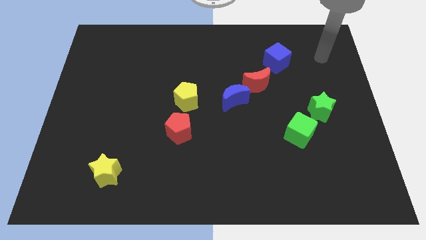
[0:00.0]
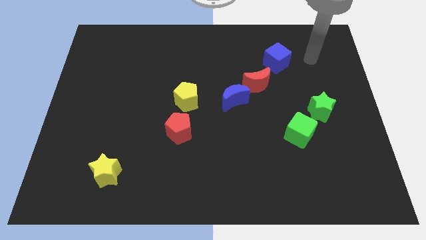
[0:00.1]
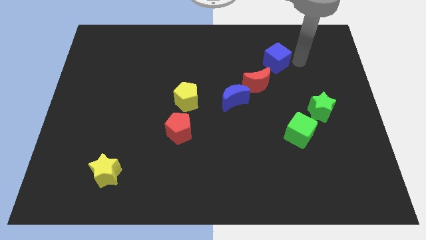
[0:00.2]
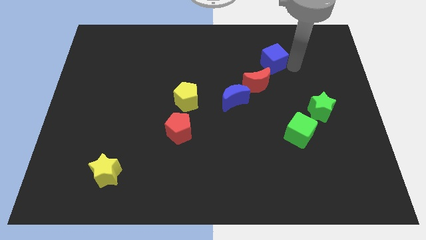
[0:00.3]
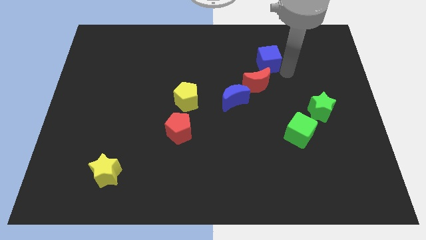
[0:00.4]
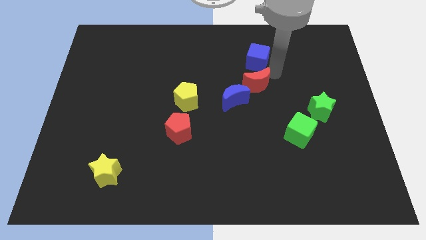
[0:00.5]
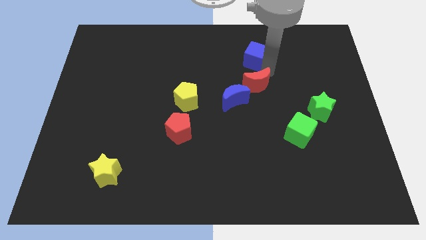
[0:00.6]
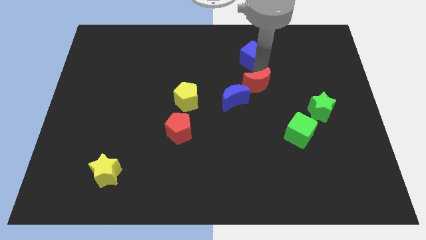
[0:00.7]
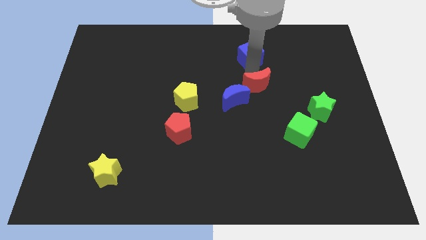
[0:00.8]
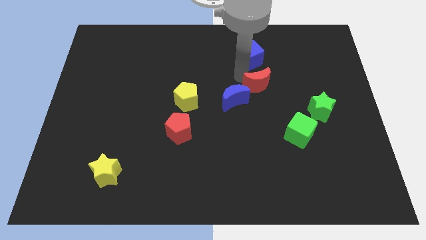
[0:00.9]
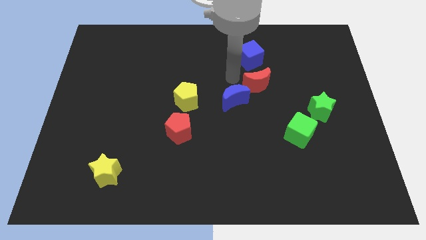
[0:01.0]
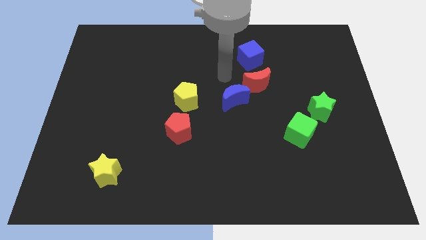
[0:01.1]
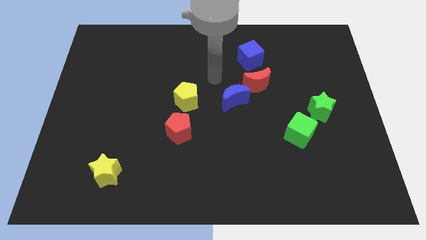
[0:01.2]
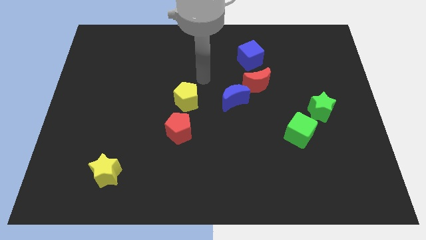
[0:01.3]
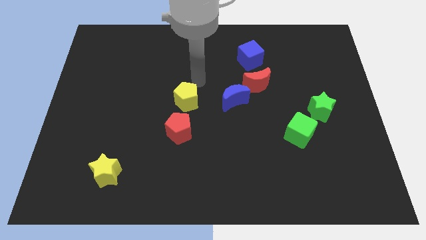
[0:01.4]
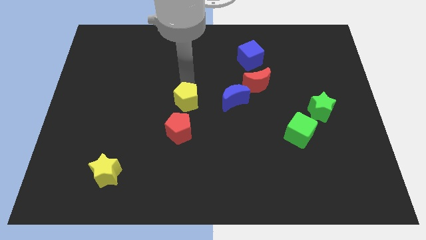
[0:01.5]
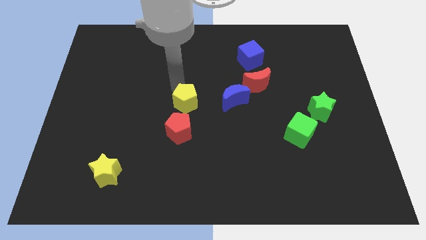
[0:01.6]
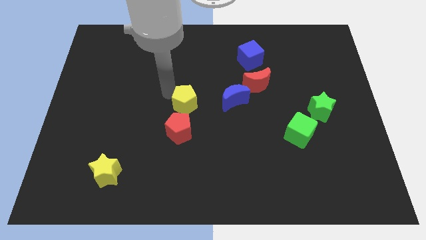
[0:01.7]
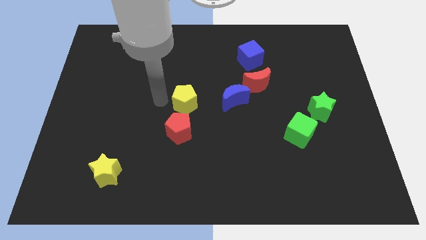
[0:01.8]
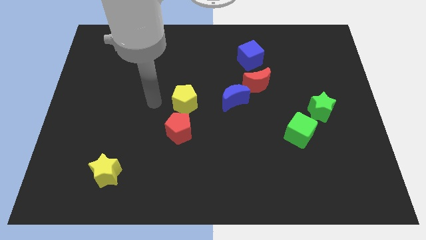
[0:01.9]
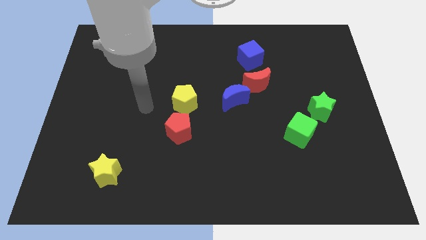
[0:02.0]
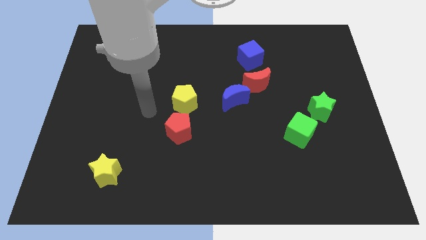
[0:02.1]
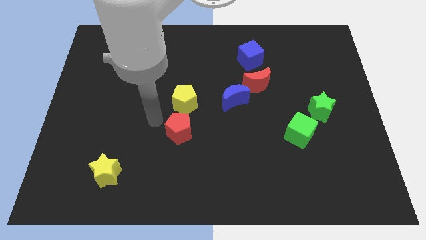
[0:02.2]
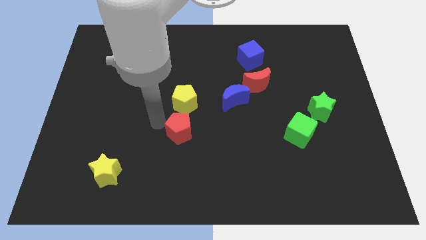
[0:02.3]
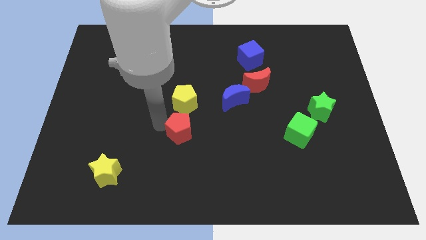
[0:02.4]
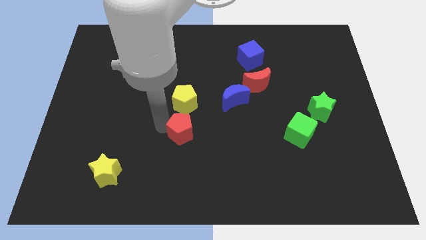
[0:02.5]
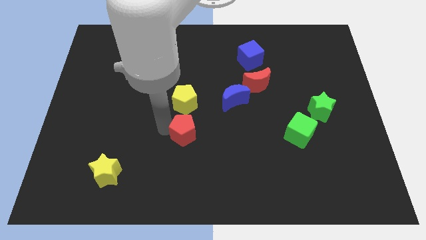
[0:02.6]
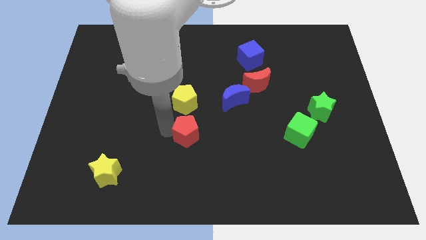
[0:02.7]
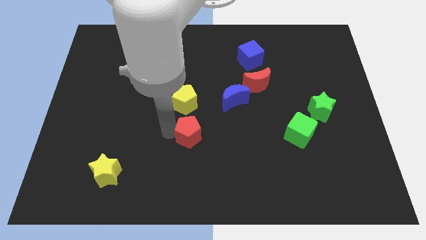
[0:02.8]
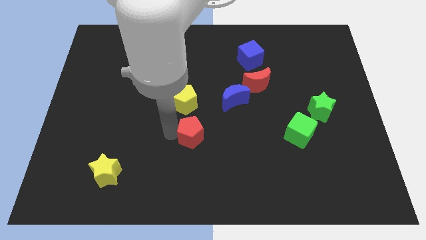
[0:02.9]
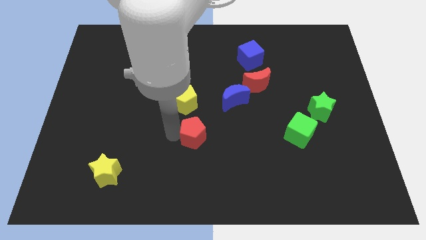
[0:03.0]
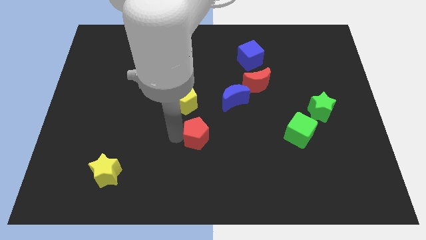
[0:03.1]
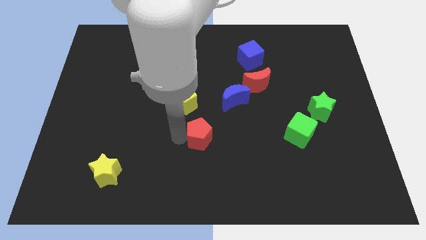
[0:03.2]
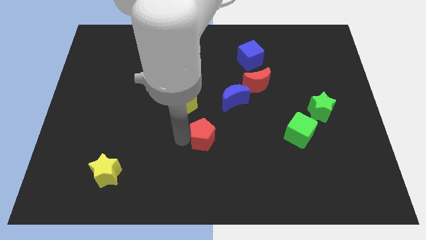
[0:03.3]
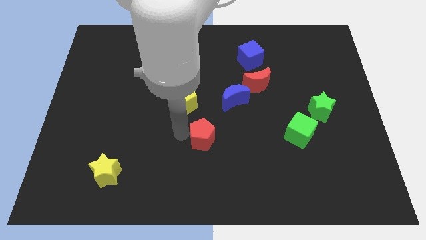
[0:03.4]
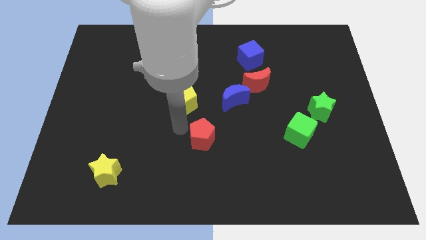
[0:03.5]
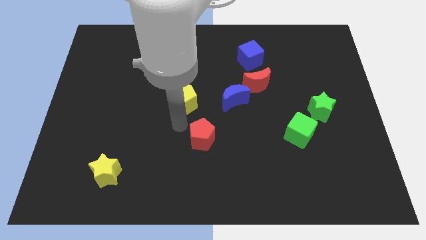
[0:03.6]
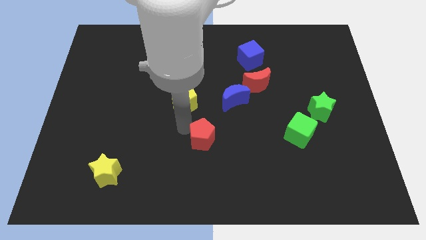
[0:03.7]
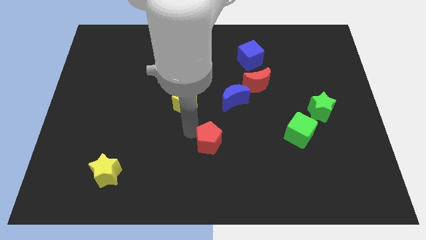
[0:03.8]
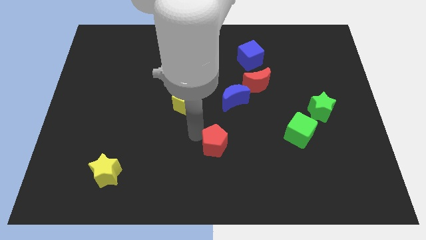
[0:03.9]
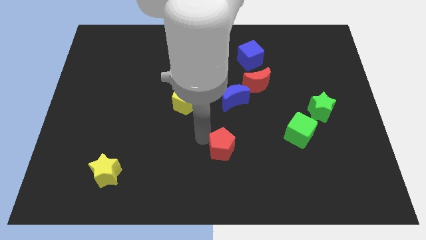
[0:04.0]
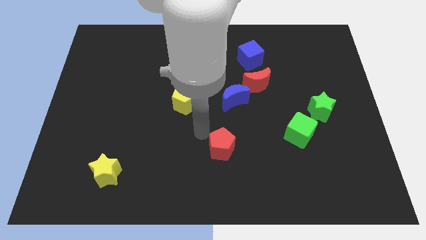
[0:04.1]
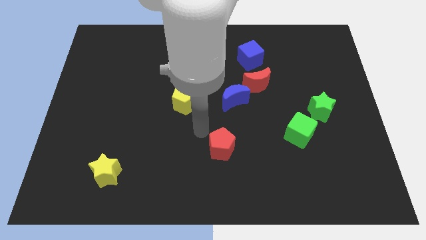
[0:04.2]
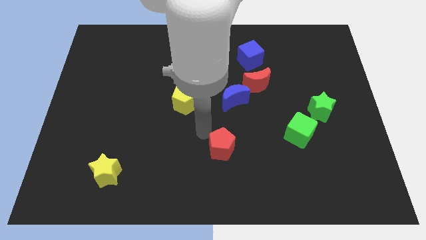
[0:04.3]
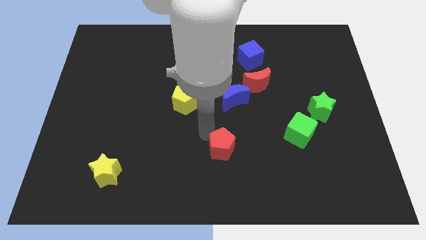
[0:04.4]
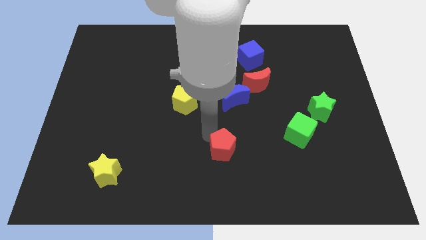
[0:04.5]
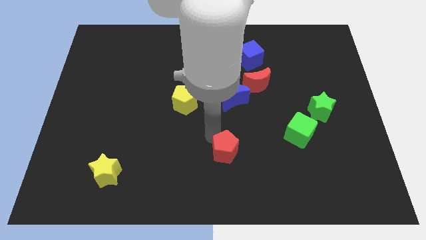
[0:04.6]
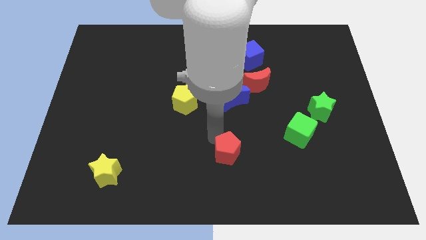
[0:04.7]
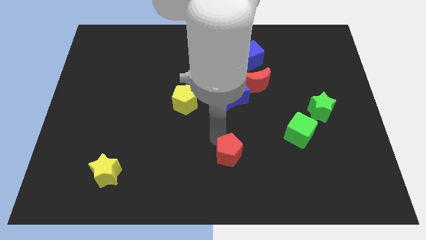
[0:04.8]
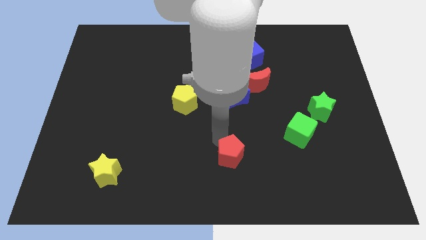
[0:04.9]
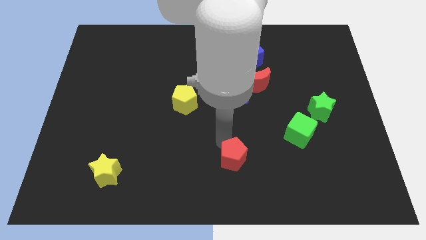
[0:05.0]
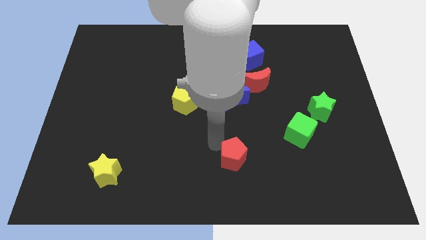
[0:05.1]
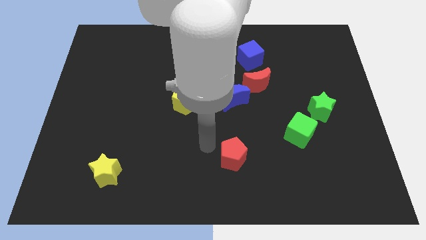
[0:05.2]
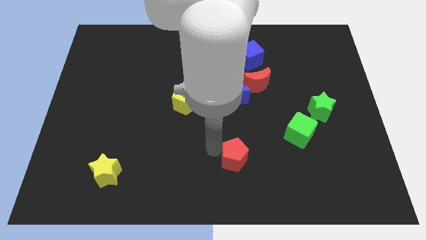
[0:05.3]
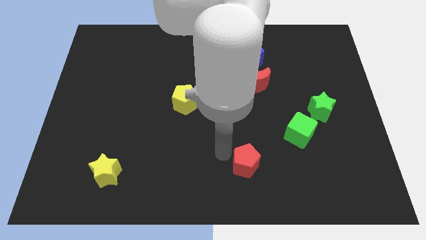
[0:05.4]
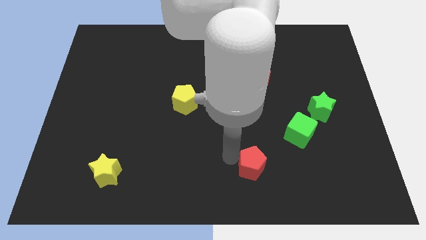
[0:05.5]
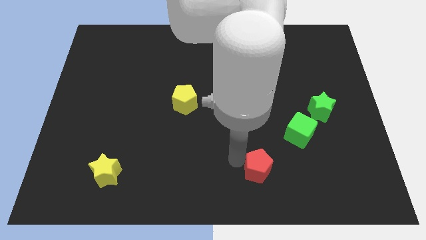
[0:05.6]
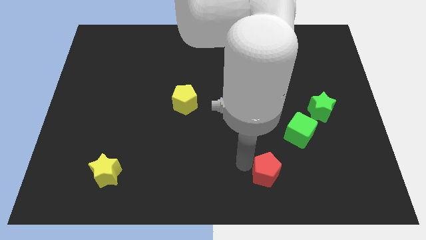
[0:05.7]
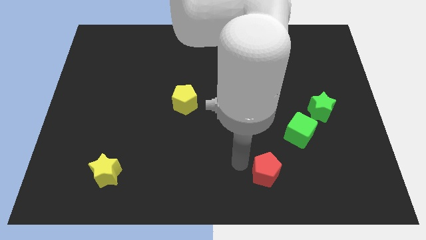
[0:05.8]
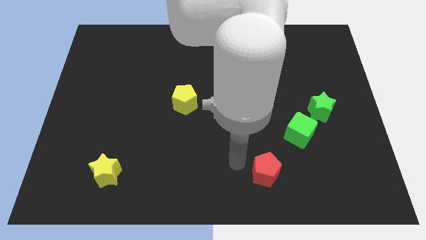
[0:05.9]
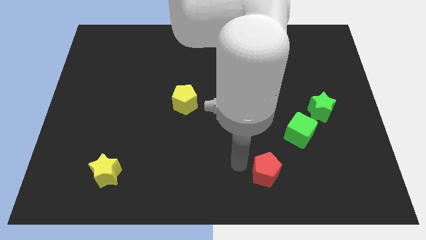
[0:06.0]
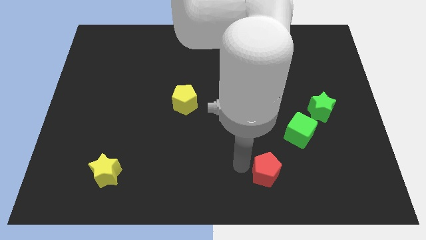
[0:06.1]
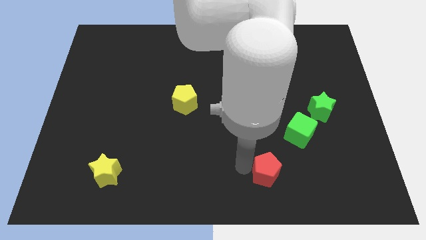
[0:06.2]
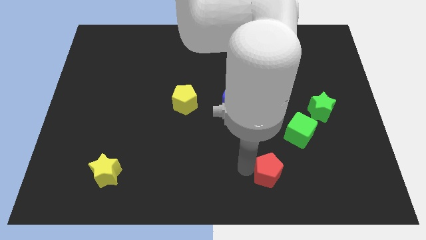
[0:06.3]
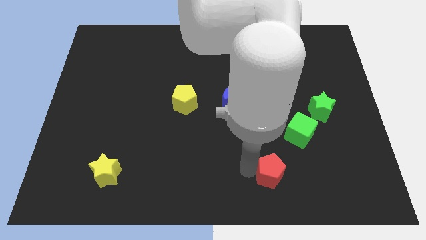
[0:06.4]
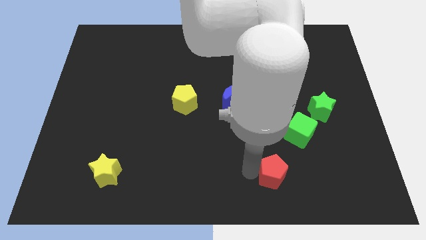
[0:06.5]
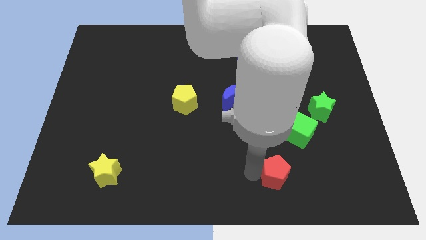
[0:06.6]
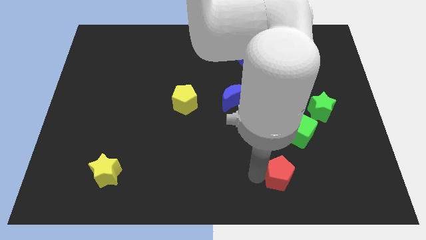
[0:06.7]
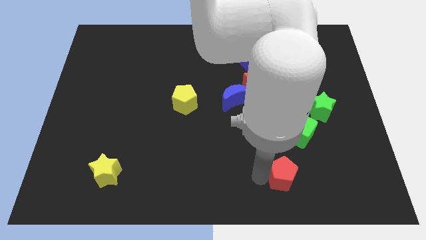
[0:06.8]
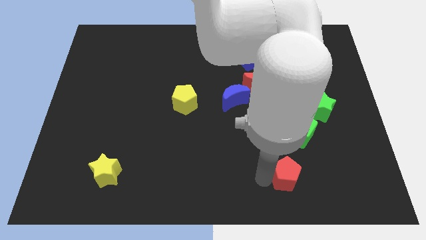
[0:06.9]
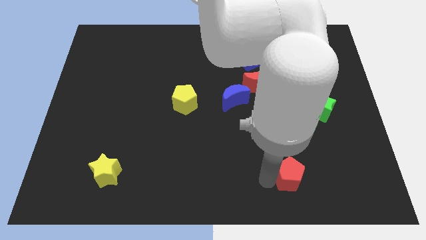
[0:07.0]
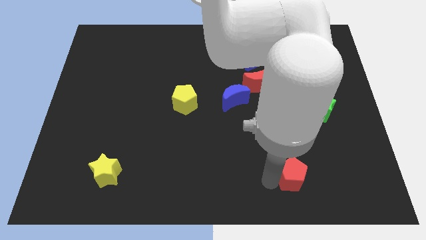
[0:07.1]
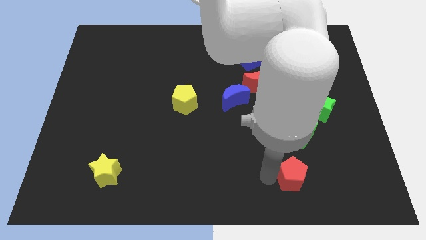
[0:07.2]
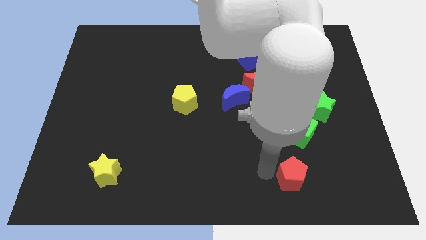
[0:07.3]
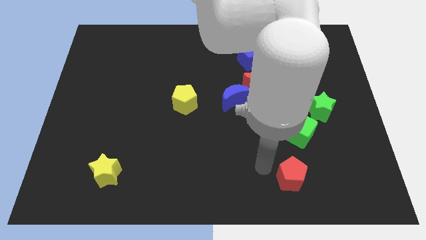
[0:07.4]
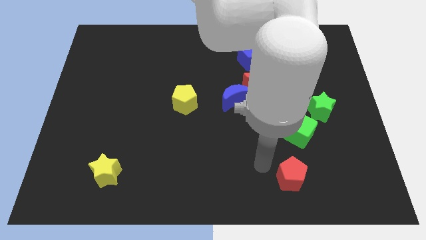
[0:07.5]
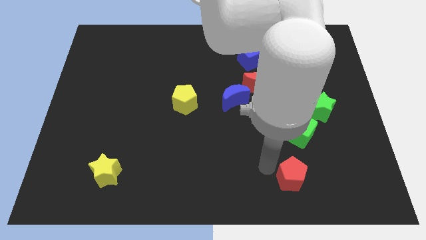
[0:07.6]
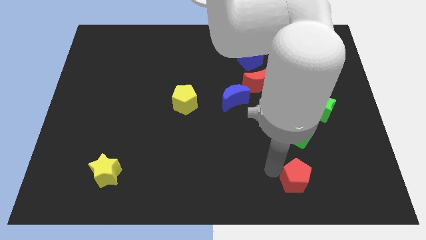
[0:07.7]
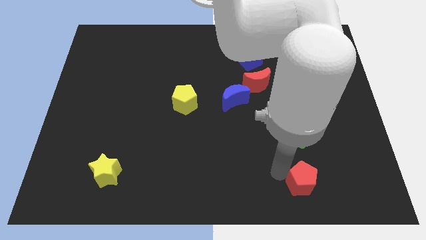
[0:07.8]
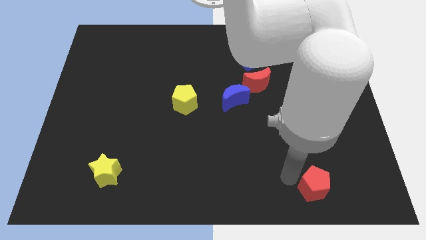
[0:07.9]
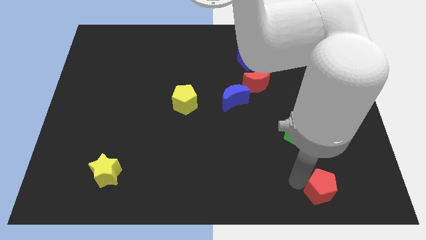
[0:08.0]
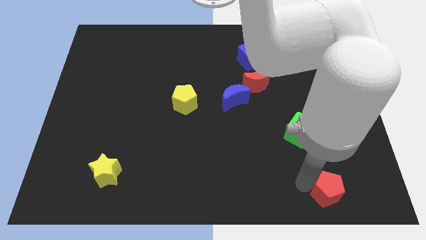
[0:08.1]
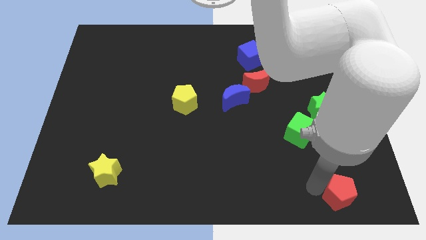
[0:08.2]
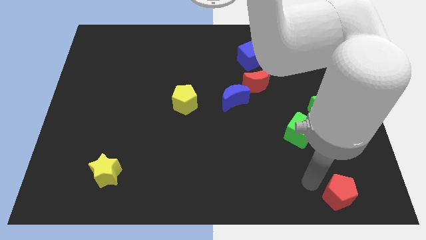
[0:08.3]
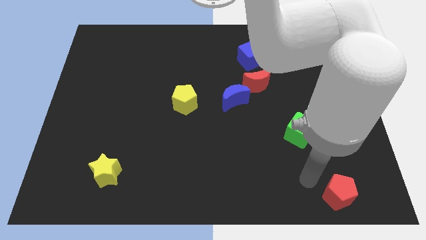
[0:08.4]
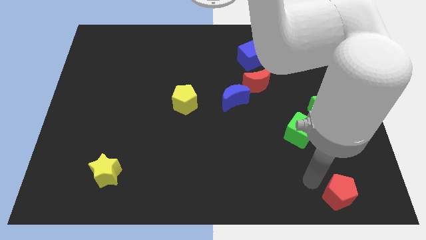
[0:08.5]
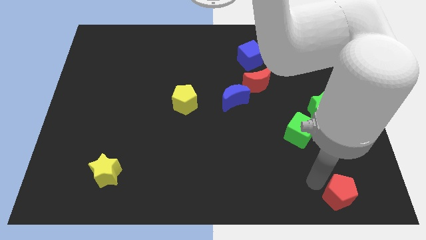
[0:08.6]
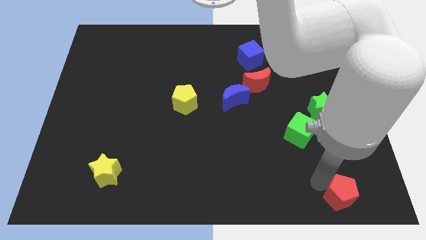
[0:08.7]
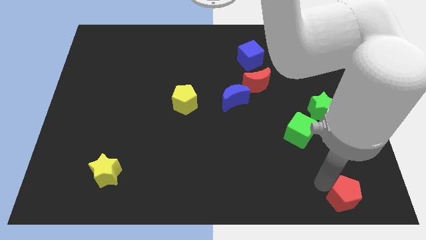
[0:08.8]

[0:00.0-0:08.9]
put the red pentagon to the bottom right
